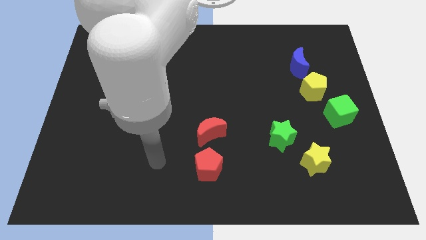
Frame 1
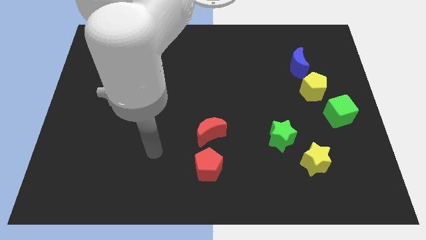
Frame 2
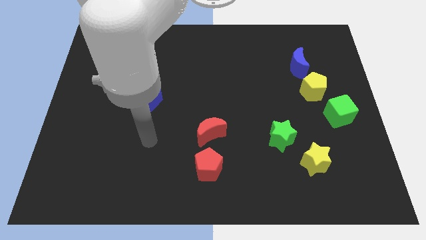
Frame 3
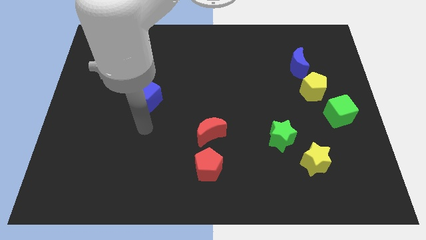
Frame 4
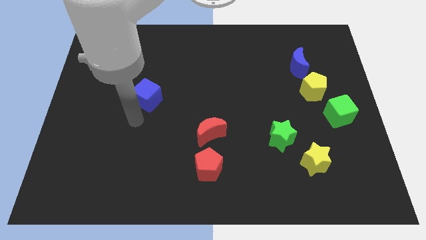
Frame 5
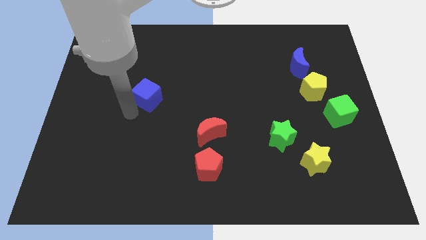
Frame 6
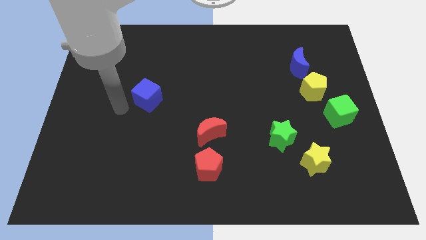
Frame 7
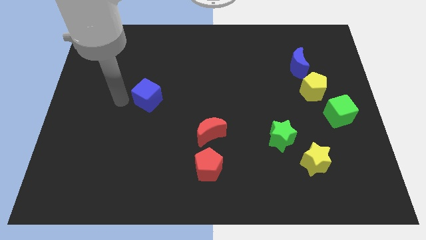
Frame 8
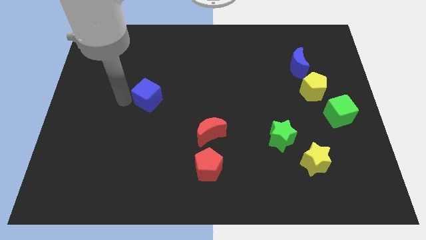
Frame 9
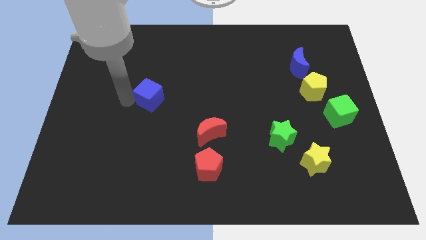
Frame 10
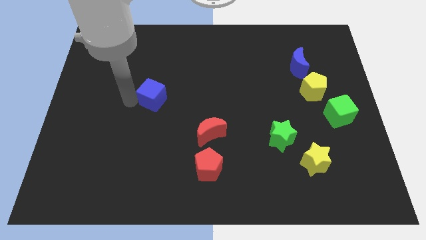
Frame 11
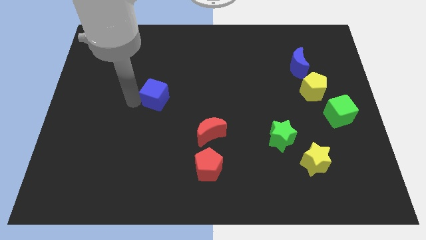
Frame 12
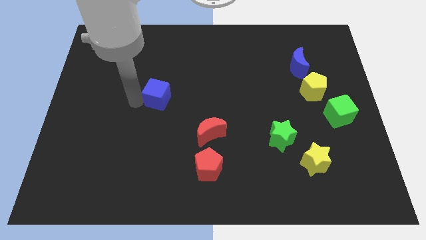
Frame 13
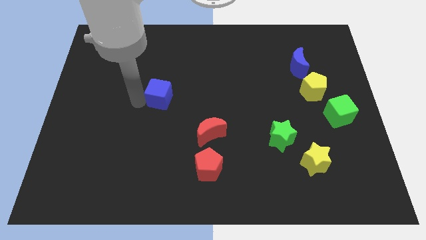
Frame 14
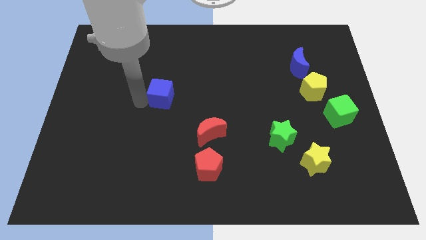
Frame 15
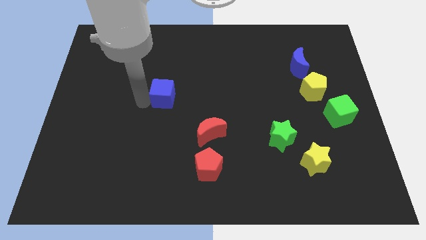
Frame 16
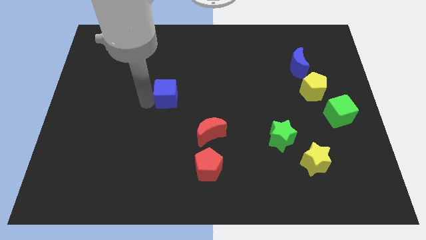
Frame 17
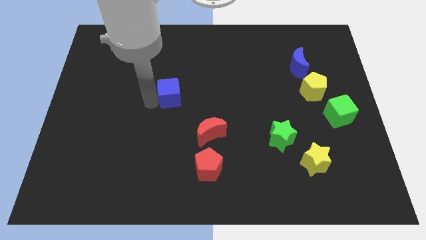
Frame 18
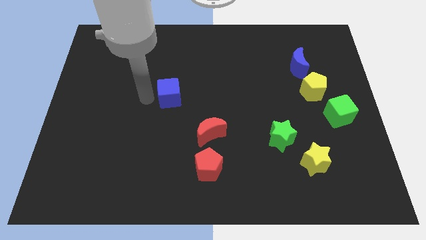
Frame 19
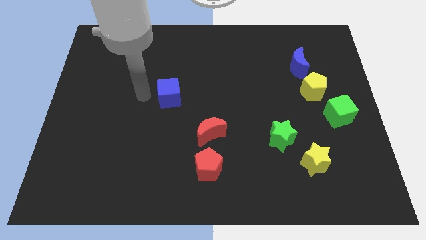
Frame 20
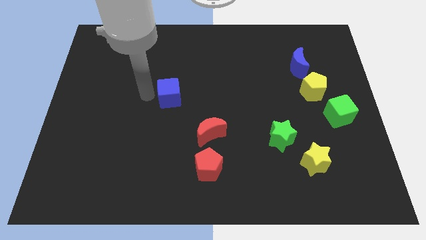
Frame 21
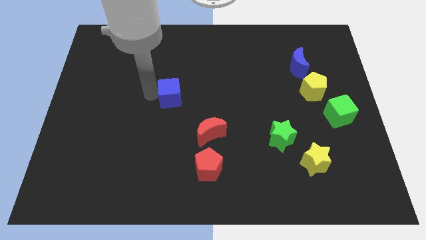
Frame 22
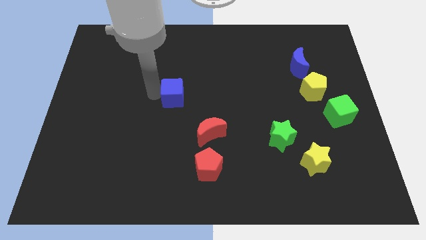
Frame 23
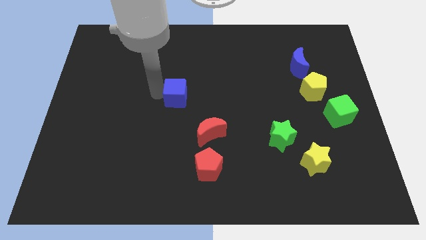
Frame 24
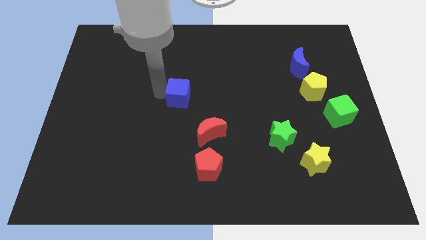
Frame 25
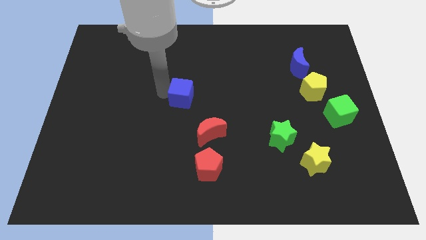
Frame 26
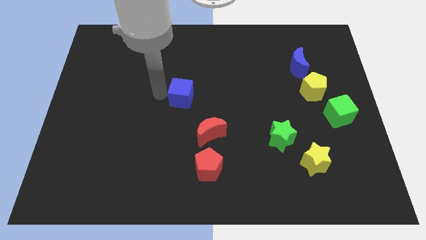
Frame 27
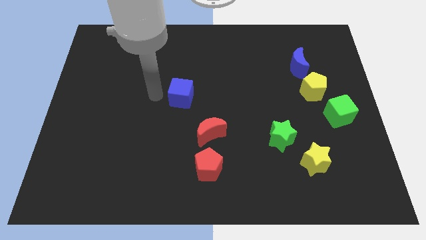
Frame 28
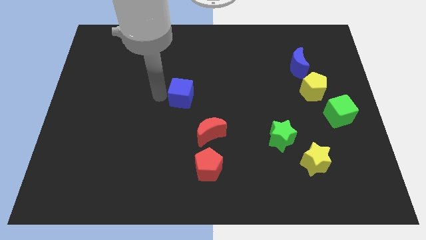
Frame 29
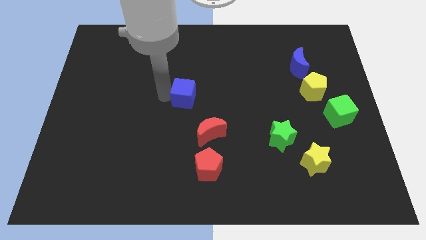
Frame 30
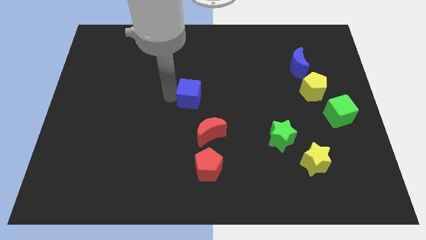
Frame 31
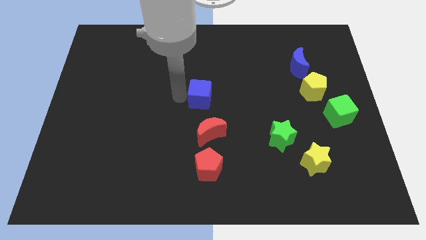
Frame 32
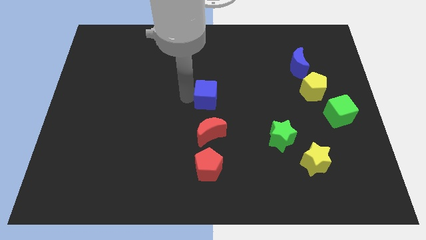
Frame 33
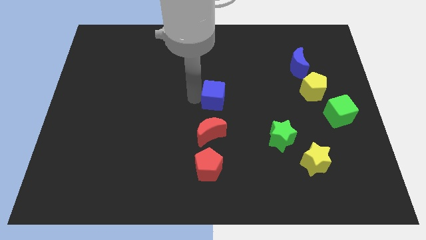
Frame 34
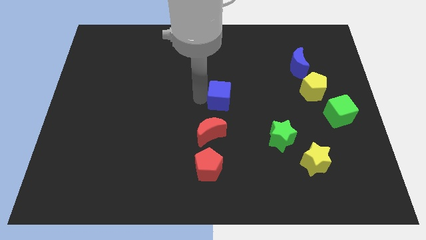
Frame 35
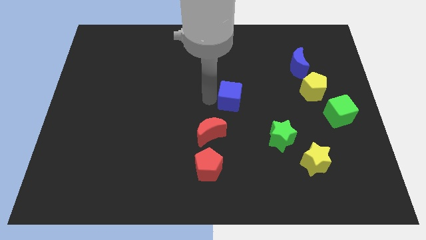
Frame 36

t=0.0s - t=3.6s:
slide the blue cube right

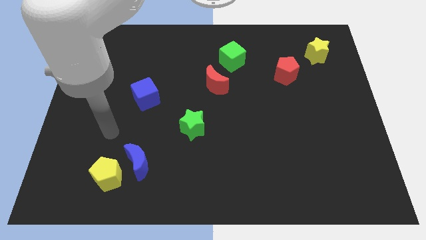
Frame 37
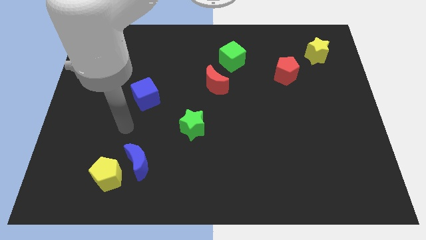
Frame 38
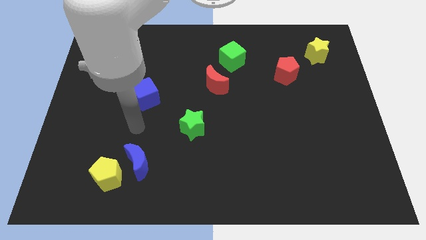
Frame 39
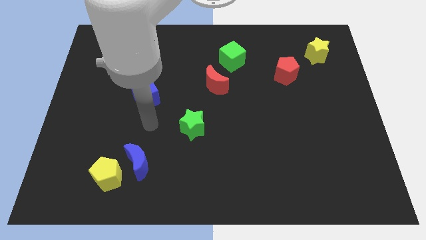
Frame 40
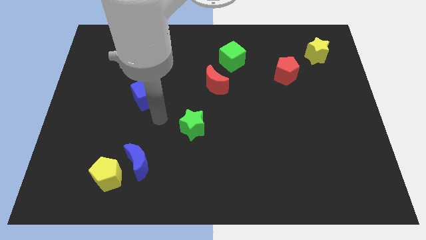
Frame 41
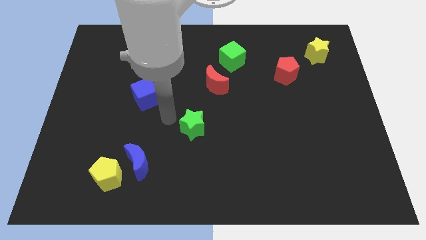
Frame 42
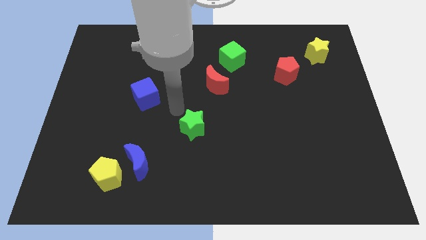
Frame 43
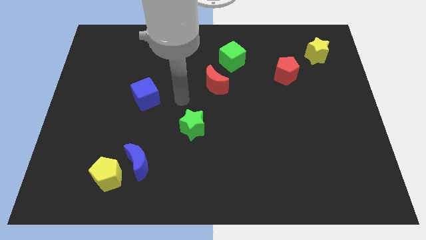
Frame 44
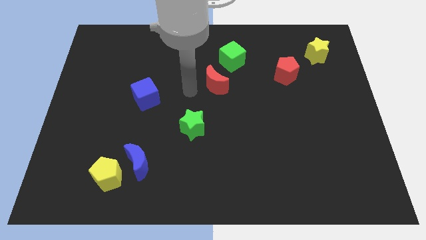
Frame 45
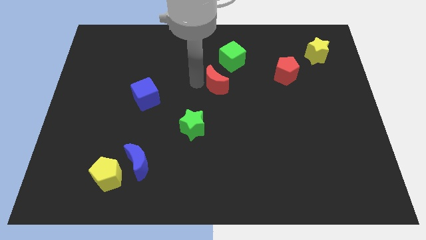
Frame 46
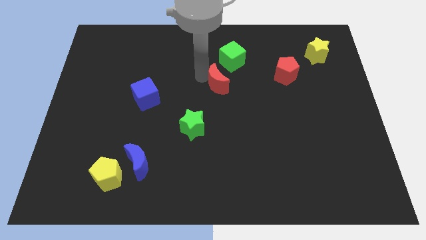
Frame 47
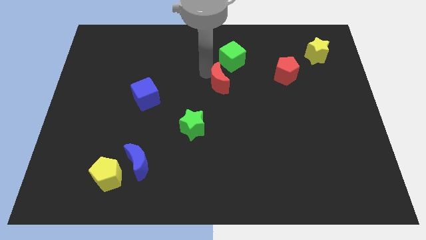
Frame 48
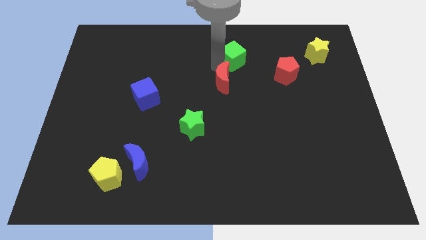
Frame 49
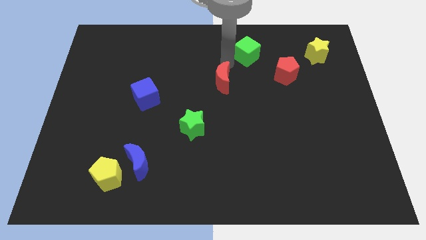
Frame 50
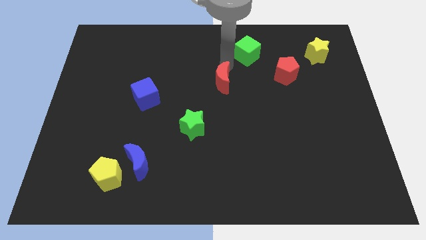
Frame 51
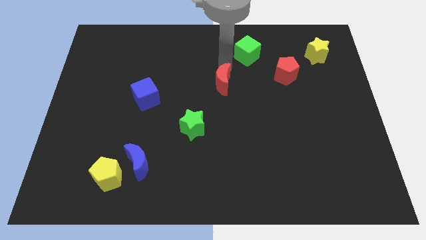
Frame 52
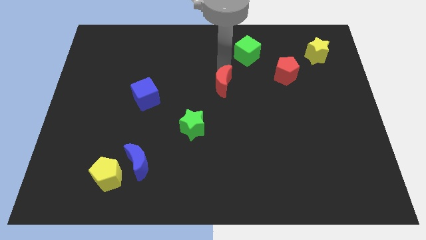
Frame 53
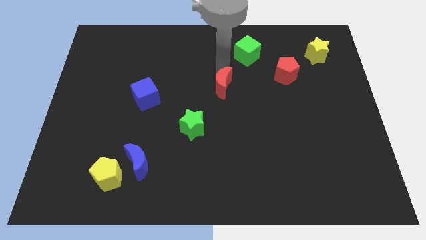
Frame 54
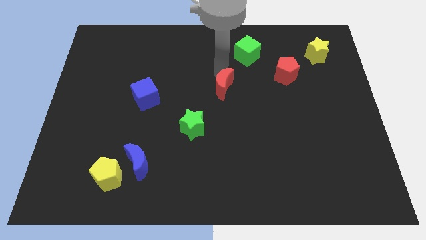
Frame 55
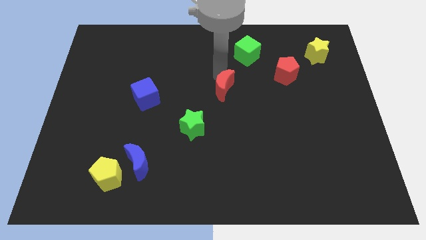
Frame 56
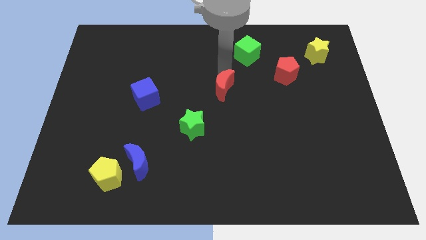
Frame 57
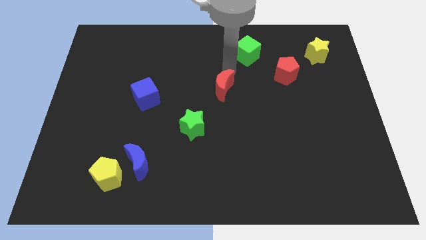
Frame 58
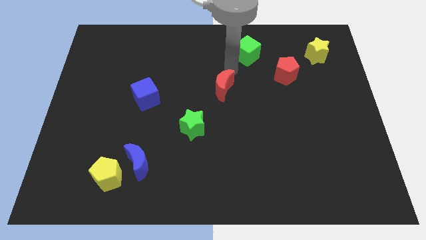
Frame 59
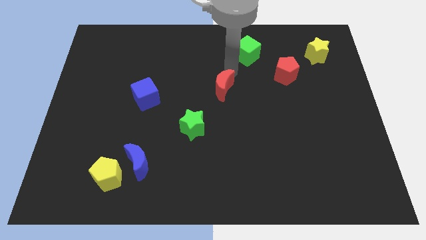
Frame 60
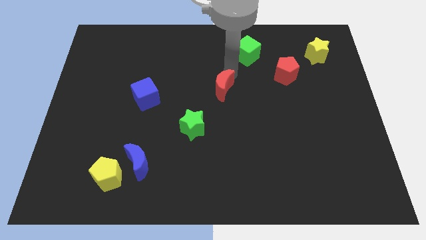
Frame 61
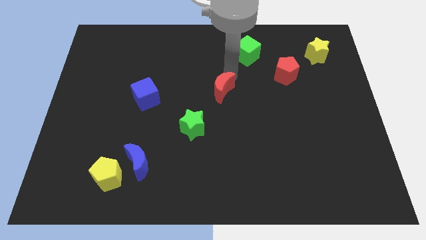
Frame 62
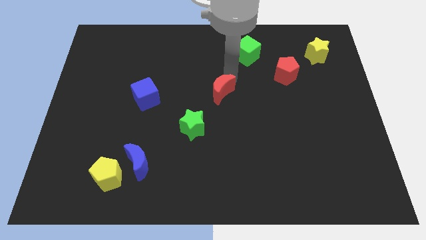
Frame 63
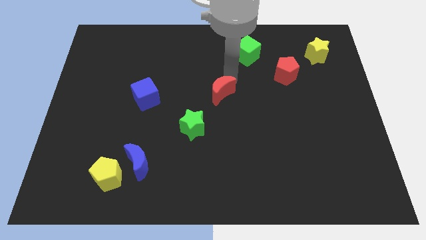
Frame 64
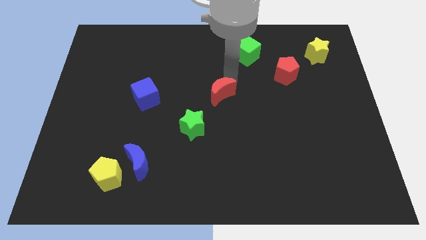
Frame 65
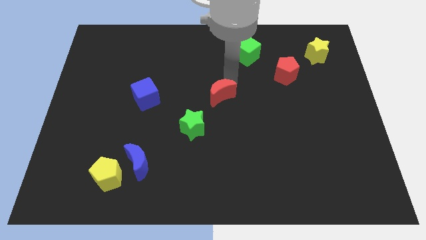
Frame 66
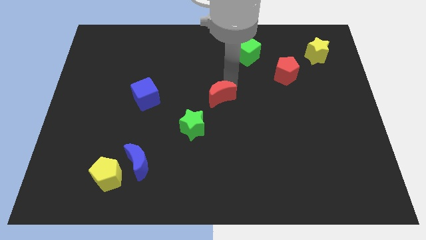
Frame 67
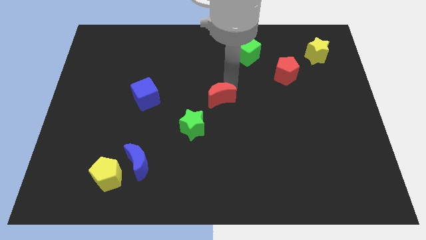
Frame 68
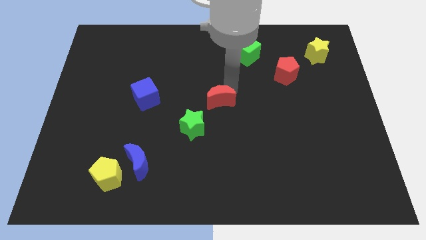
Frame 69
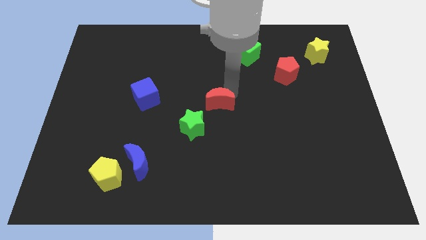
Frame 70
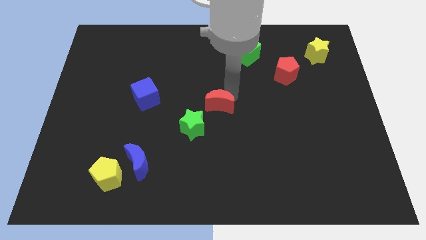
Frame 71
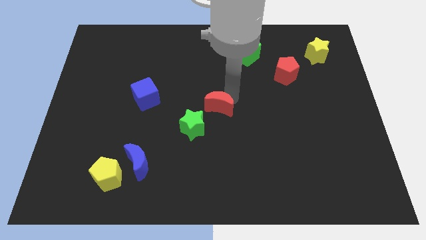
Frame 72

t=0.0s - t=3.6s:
slightly slide the red moon down

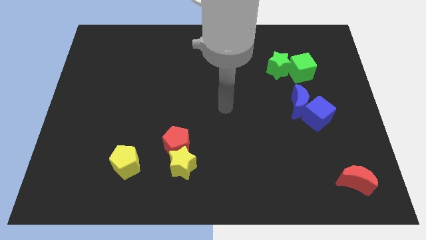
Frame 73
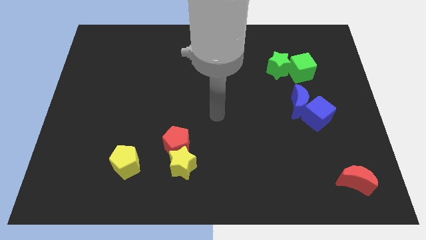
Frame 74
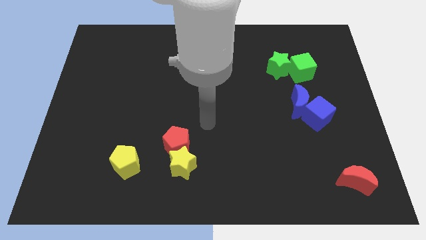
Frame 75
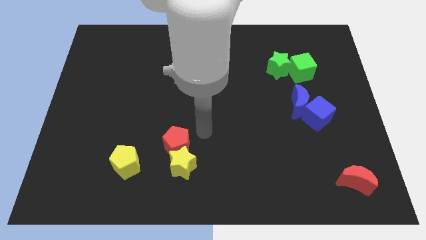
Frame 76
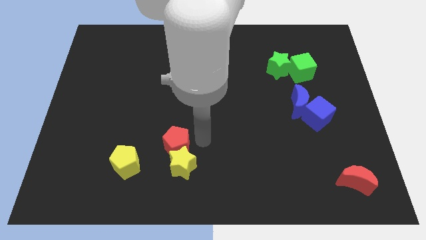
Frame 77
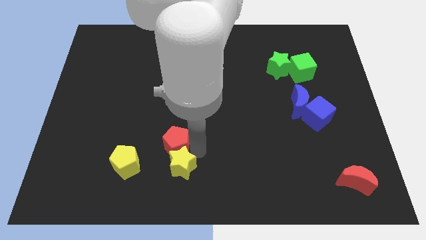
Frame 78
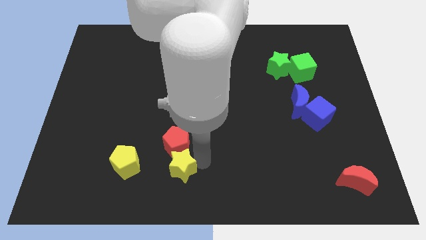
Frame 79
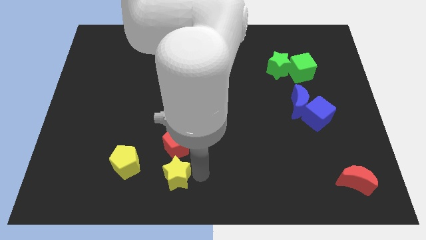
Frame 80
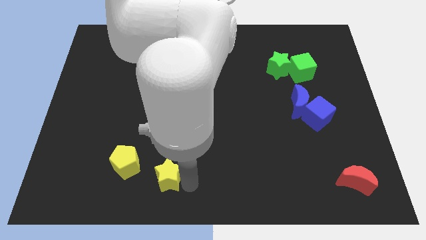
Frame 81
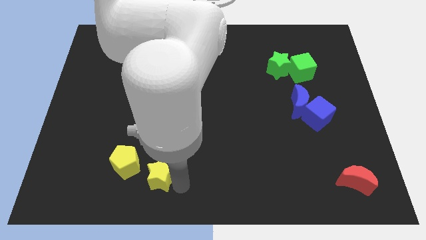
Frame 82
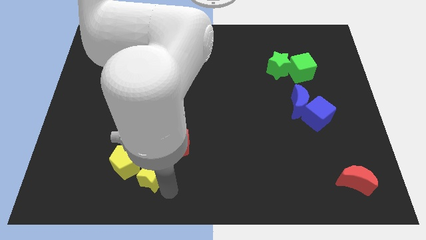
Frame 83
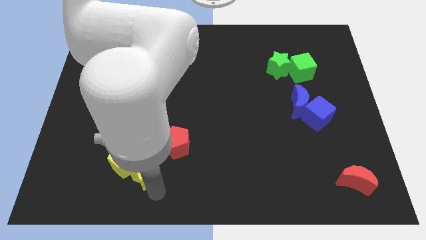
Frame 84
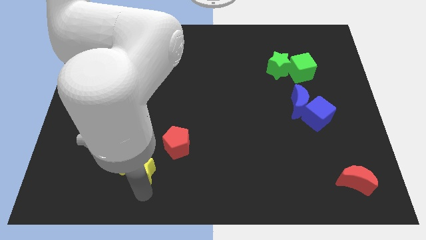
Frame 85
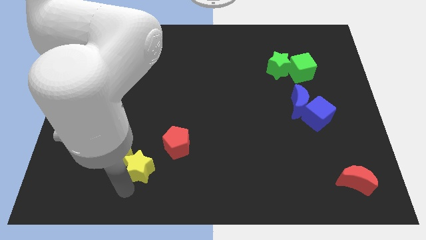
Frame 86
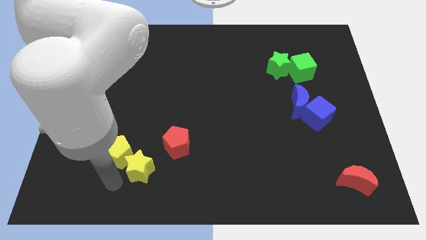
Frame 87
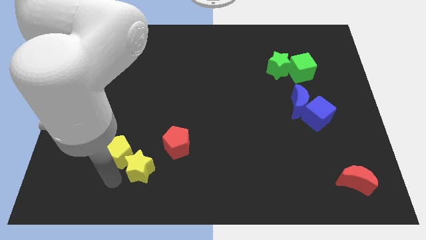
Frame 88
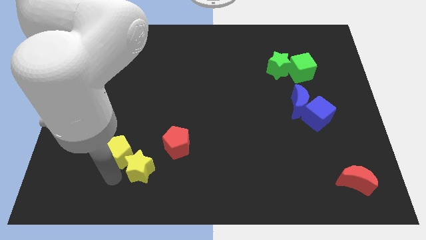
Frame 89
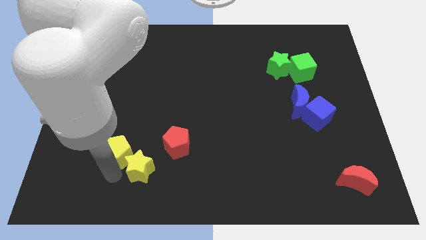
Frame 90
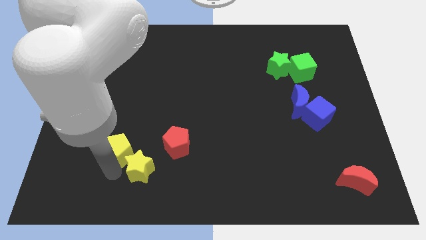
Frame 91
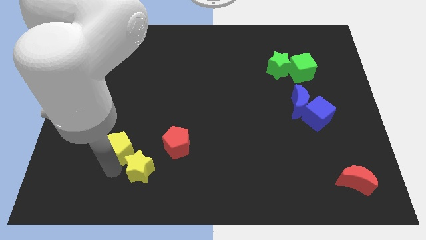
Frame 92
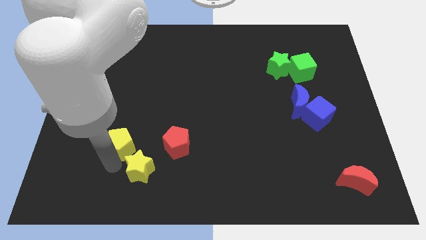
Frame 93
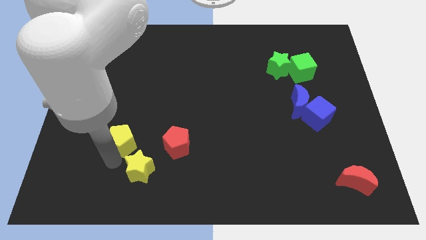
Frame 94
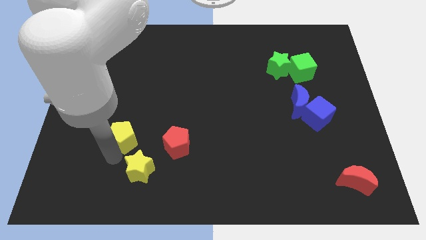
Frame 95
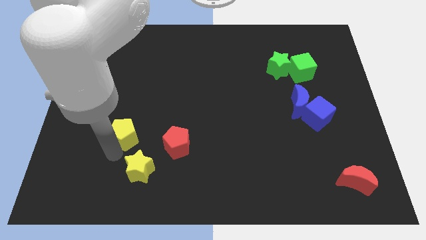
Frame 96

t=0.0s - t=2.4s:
slightly slide the yellow pentagon up
